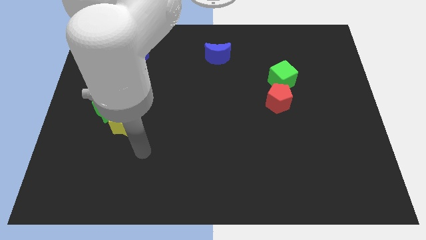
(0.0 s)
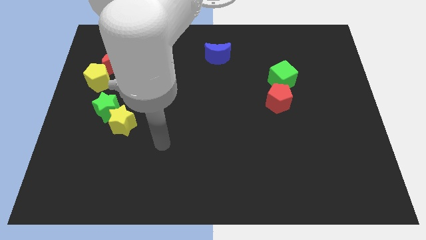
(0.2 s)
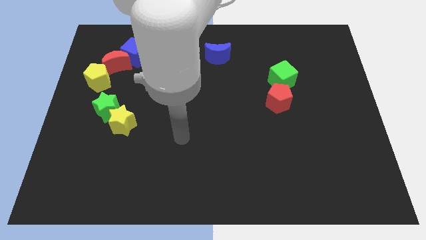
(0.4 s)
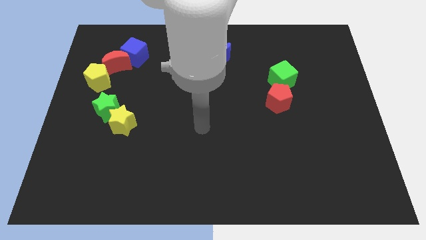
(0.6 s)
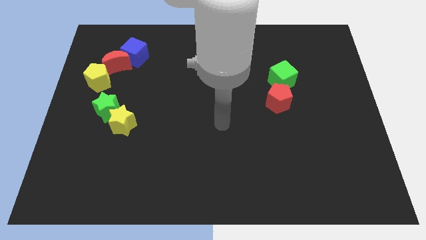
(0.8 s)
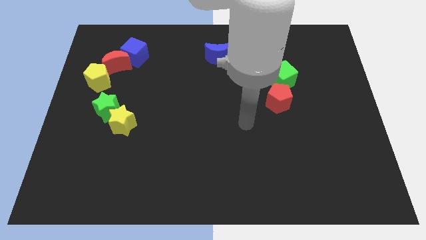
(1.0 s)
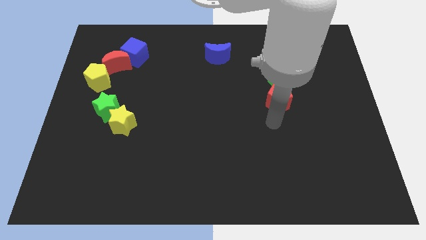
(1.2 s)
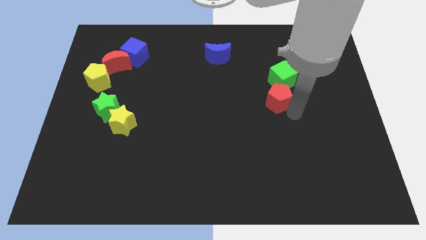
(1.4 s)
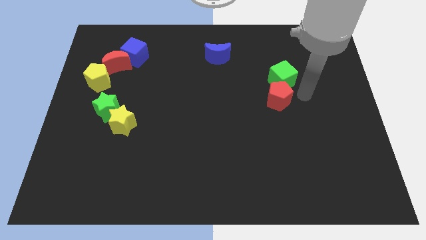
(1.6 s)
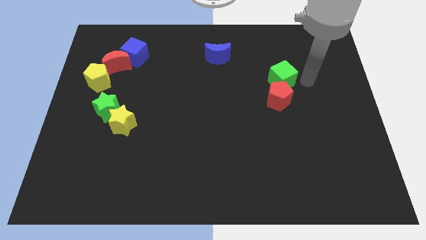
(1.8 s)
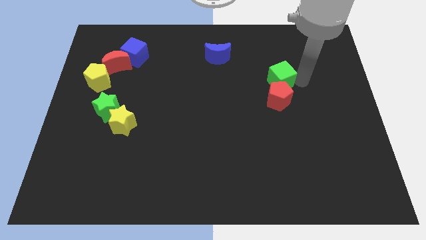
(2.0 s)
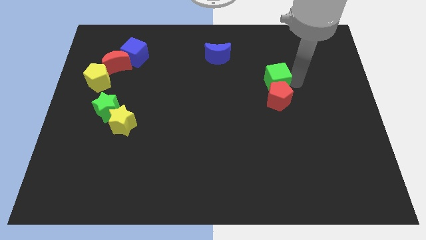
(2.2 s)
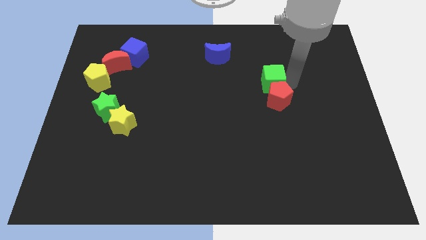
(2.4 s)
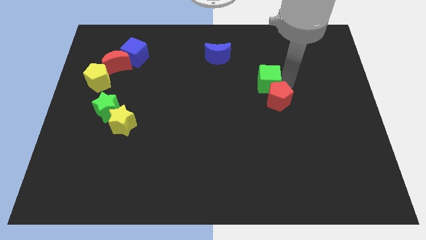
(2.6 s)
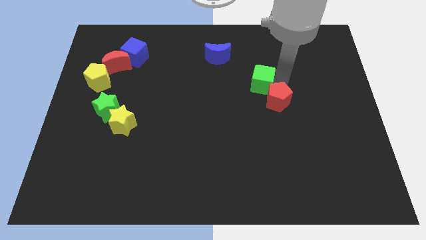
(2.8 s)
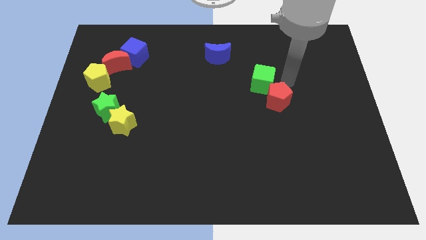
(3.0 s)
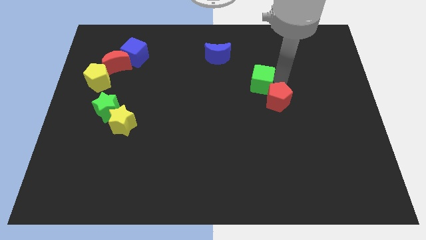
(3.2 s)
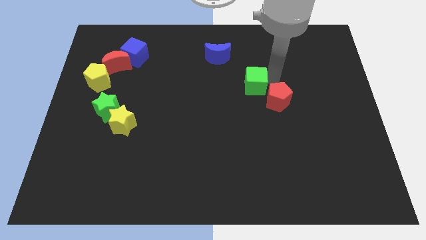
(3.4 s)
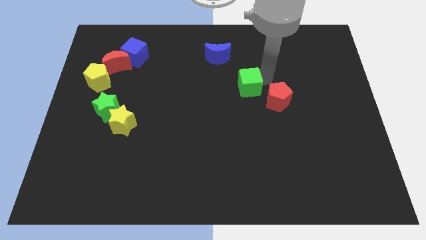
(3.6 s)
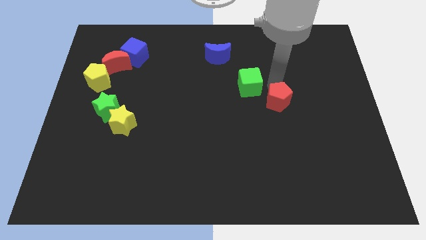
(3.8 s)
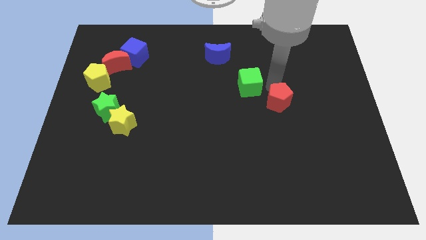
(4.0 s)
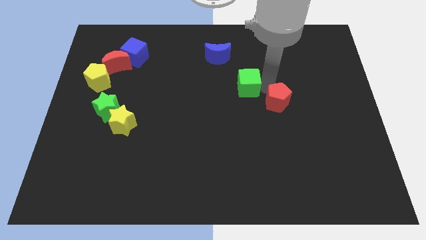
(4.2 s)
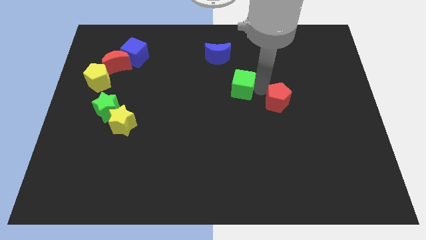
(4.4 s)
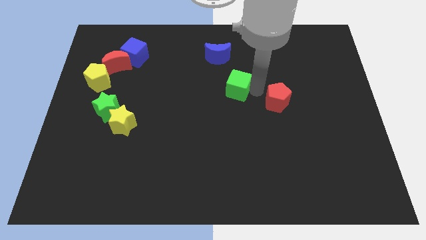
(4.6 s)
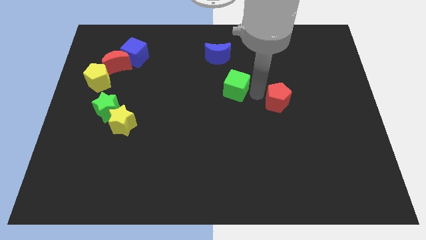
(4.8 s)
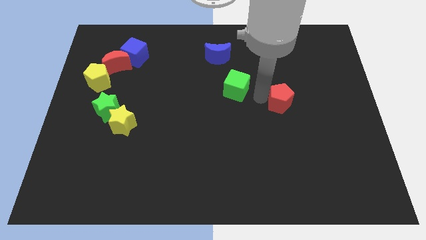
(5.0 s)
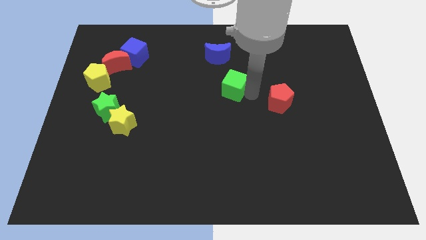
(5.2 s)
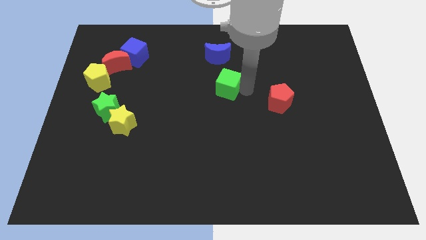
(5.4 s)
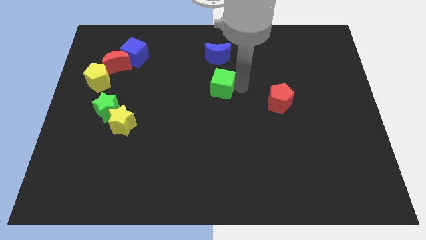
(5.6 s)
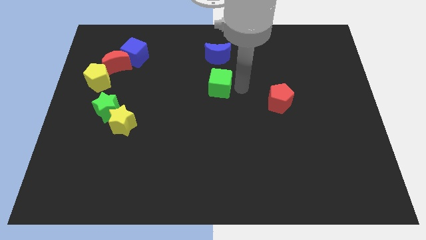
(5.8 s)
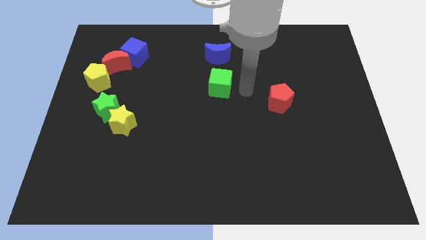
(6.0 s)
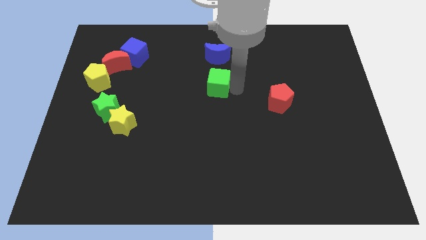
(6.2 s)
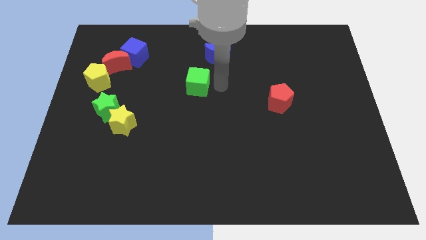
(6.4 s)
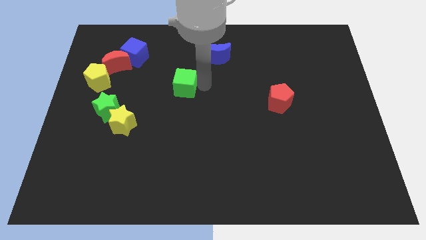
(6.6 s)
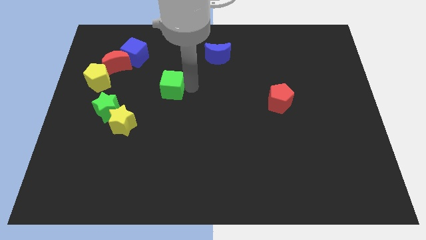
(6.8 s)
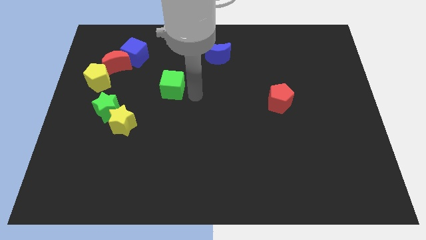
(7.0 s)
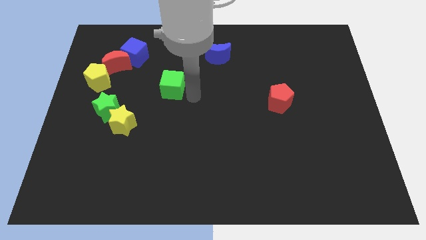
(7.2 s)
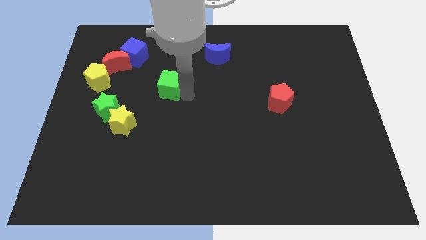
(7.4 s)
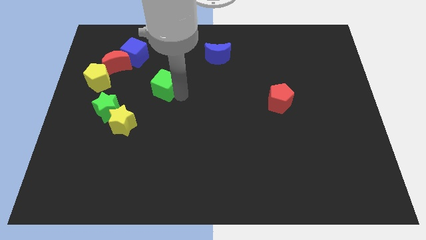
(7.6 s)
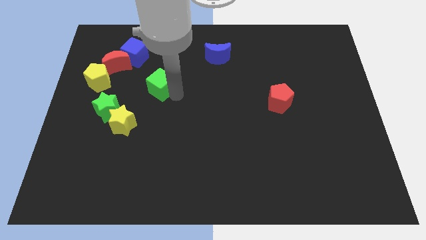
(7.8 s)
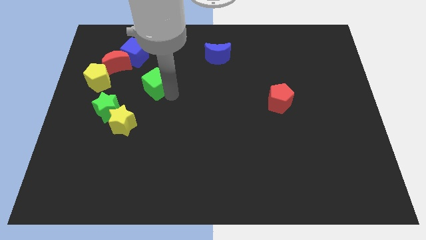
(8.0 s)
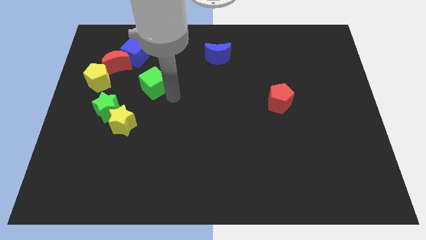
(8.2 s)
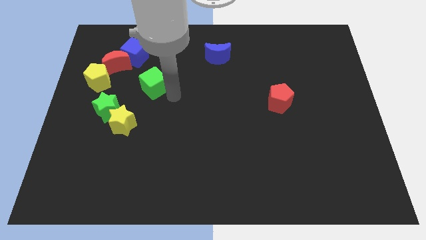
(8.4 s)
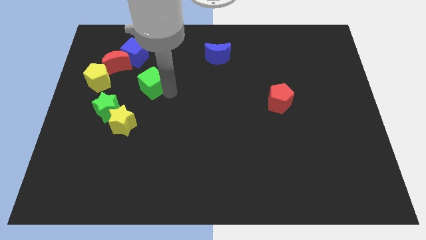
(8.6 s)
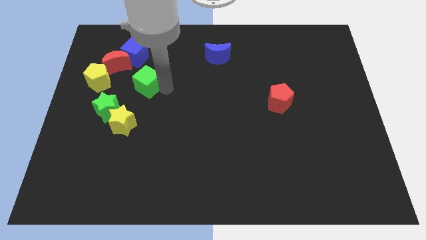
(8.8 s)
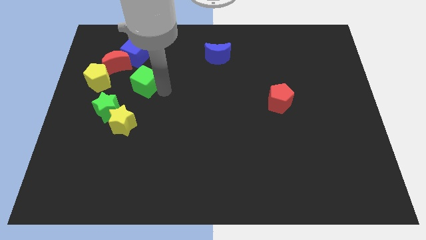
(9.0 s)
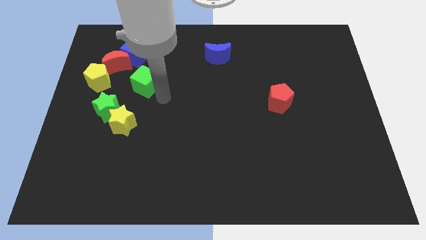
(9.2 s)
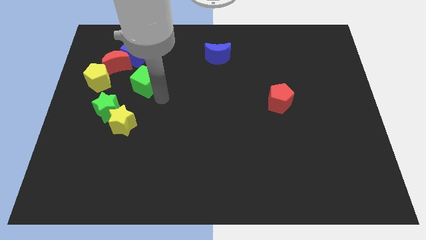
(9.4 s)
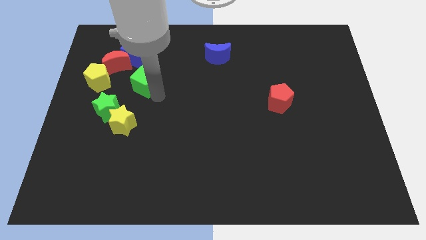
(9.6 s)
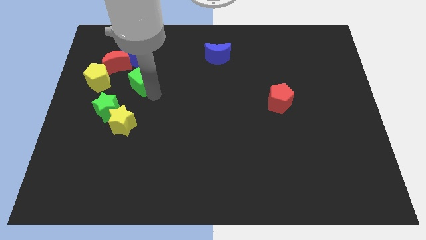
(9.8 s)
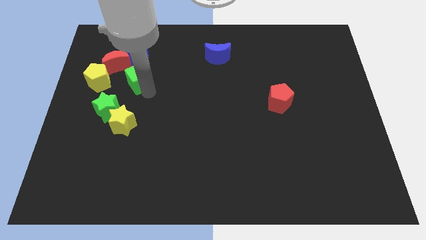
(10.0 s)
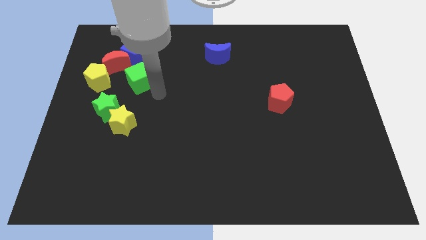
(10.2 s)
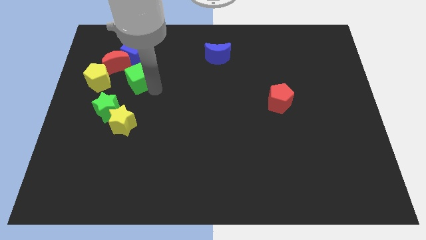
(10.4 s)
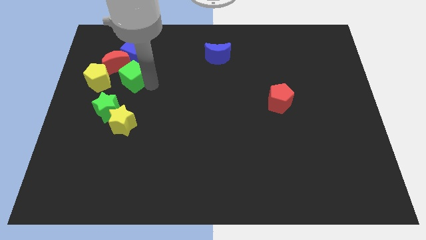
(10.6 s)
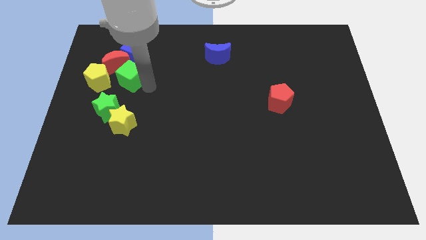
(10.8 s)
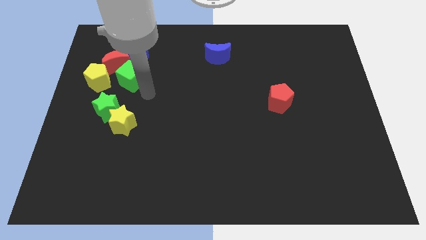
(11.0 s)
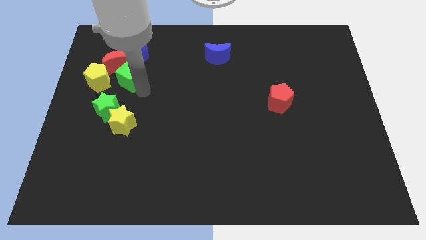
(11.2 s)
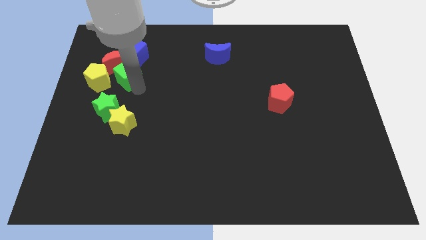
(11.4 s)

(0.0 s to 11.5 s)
move the green cube close to the red moon

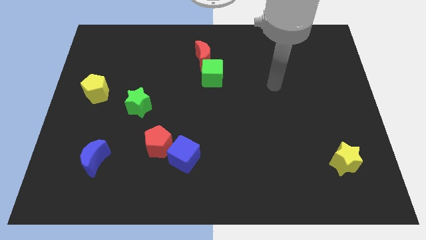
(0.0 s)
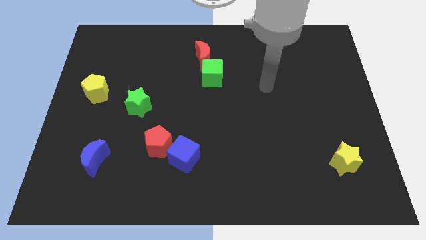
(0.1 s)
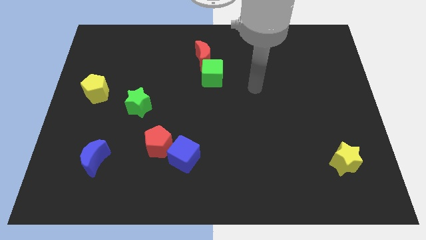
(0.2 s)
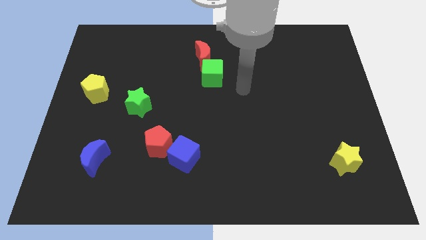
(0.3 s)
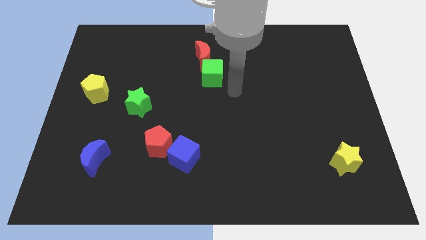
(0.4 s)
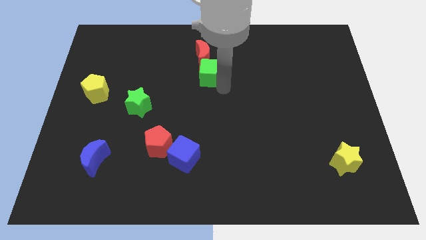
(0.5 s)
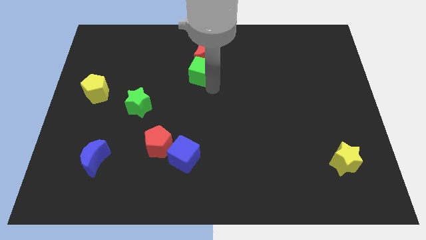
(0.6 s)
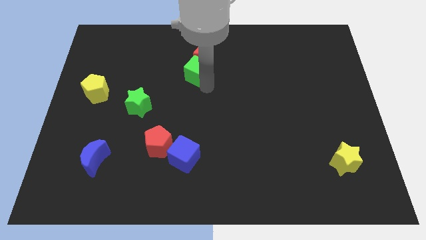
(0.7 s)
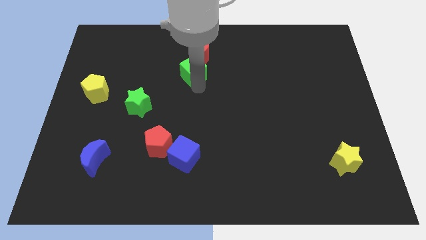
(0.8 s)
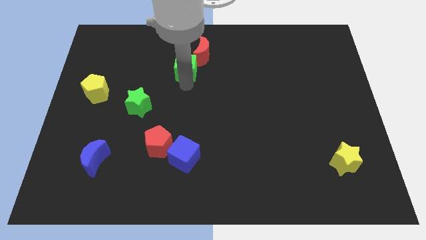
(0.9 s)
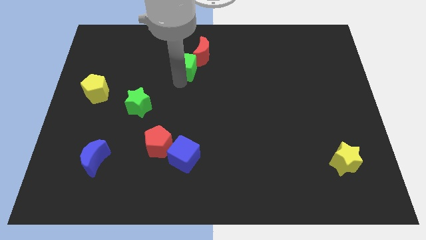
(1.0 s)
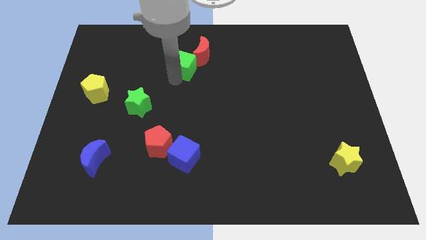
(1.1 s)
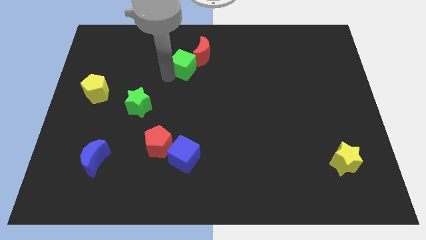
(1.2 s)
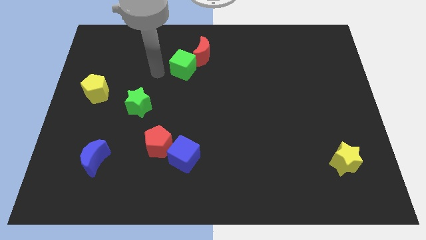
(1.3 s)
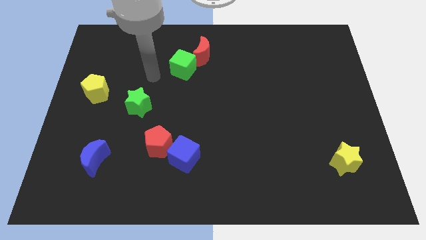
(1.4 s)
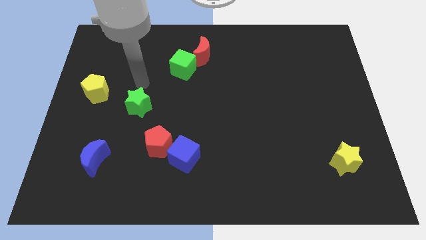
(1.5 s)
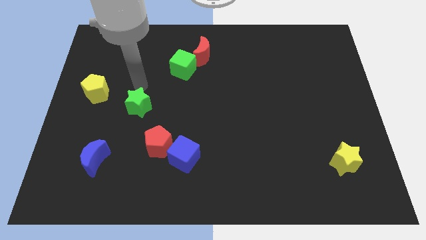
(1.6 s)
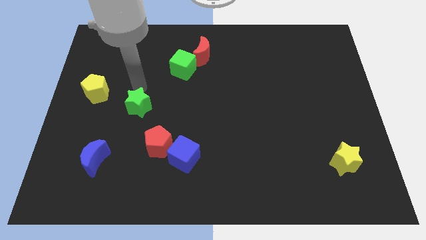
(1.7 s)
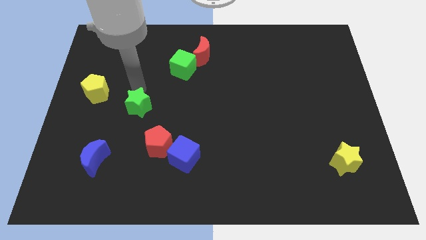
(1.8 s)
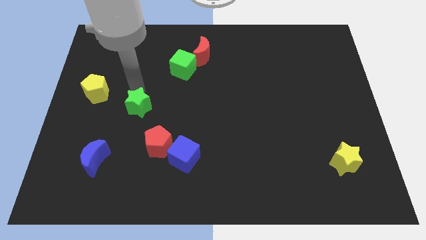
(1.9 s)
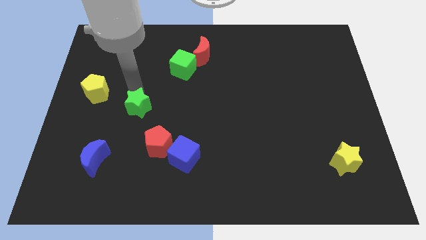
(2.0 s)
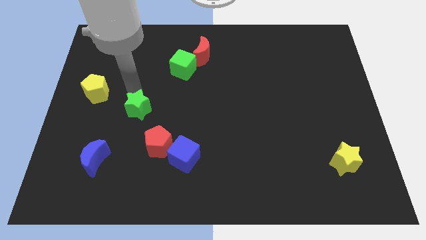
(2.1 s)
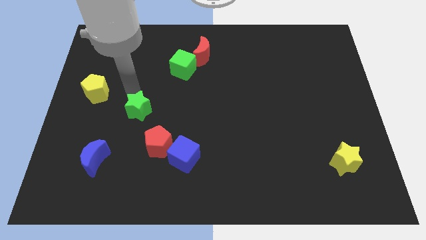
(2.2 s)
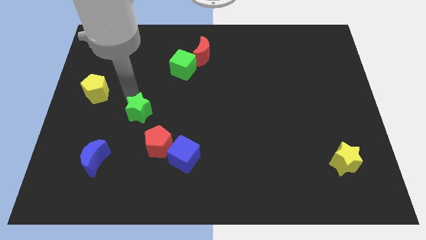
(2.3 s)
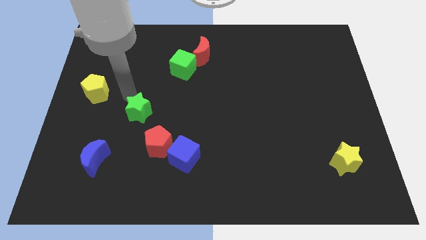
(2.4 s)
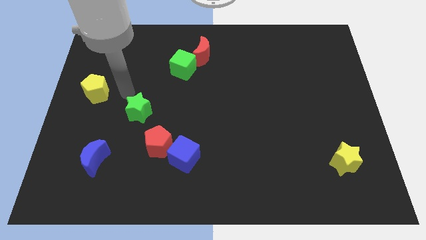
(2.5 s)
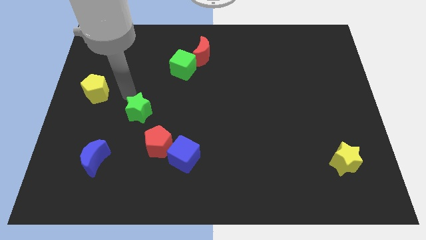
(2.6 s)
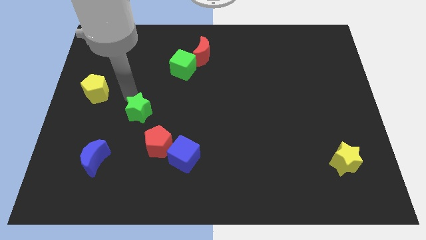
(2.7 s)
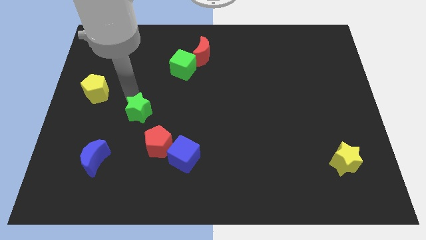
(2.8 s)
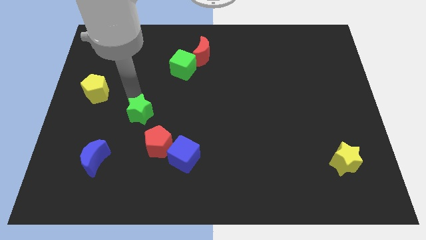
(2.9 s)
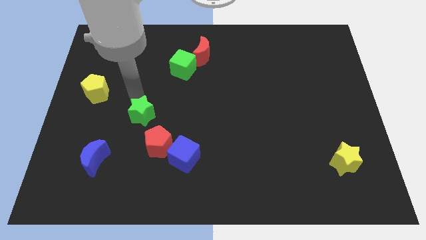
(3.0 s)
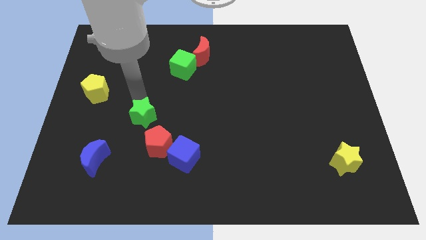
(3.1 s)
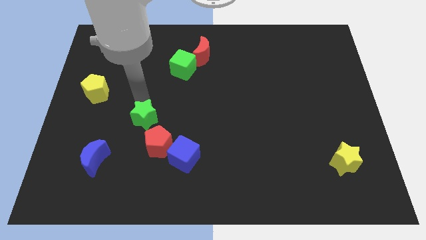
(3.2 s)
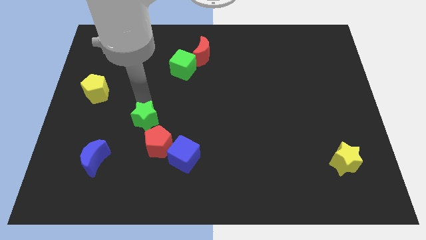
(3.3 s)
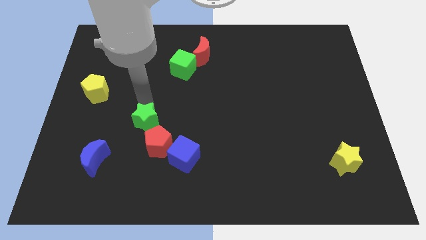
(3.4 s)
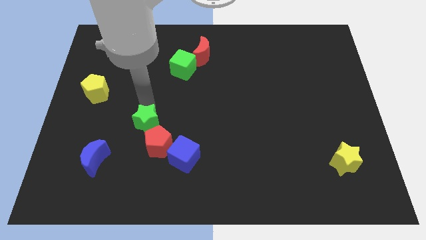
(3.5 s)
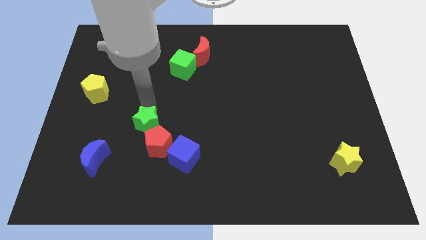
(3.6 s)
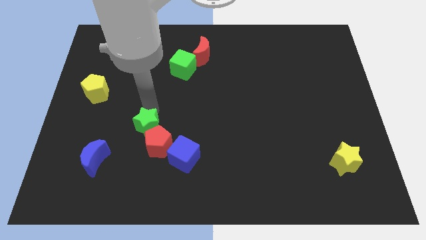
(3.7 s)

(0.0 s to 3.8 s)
slide the green star to the red pentagon
